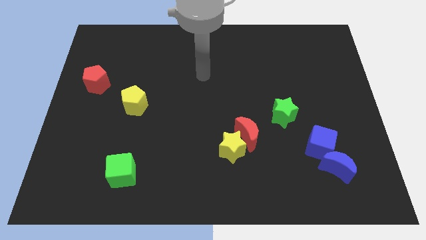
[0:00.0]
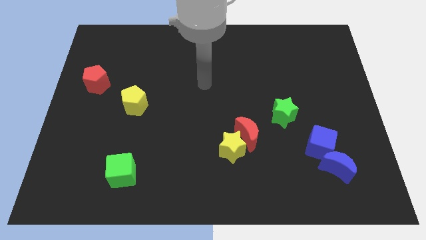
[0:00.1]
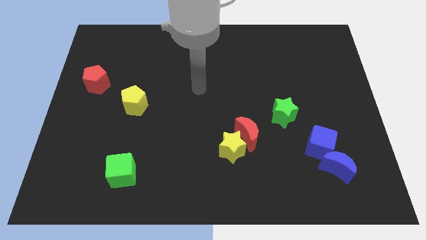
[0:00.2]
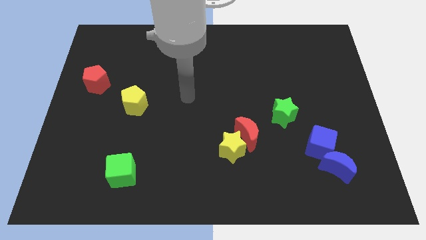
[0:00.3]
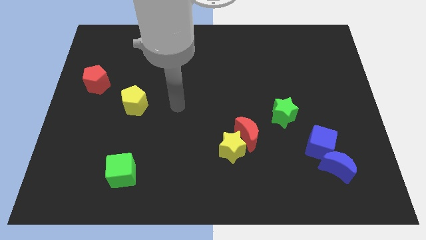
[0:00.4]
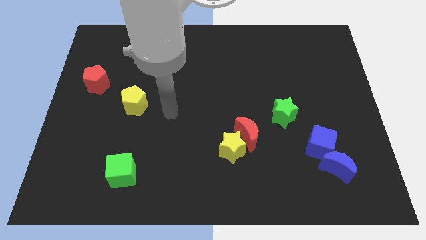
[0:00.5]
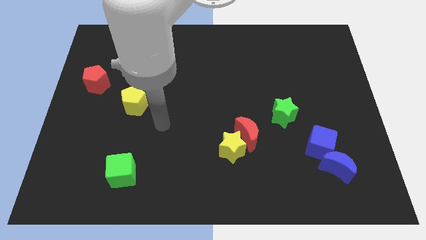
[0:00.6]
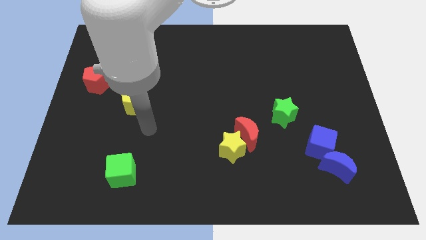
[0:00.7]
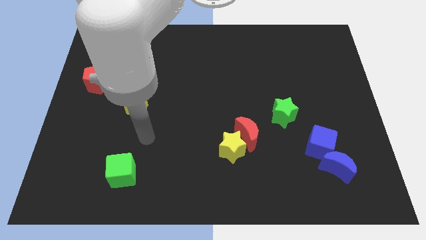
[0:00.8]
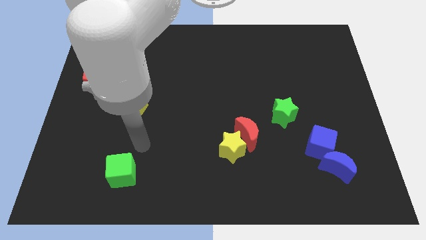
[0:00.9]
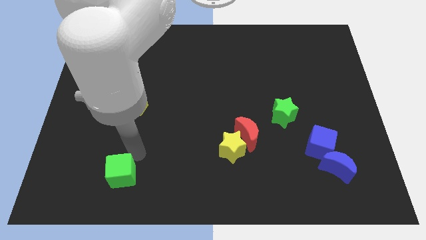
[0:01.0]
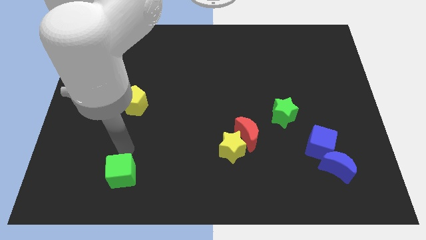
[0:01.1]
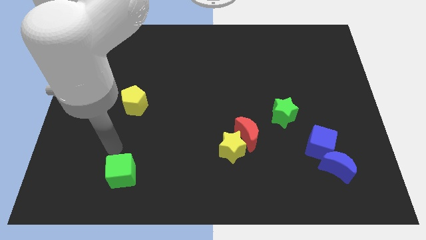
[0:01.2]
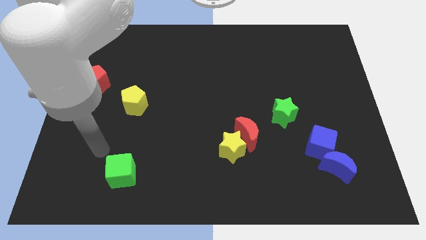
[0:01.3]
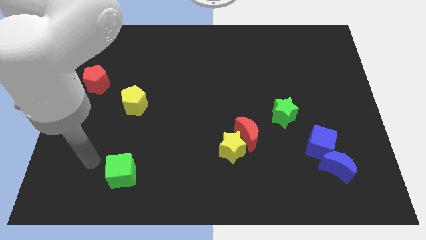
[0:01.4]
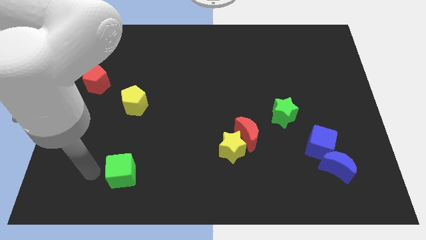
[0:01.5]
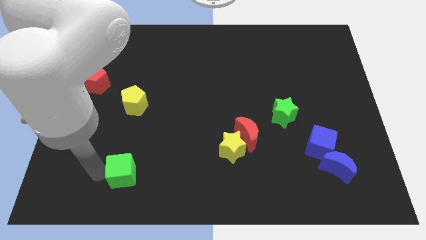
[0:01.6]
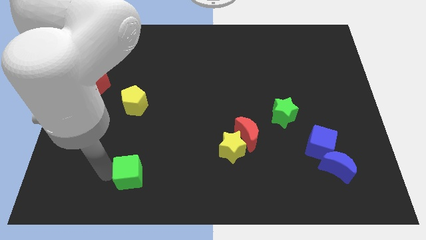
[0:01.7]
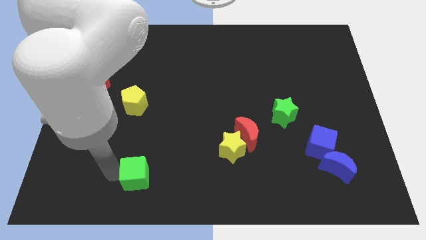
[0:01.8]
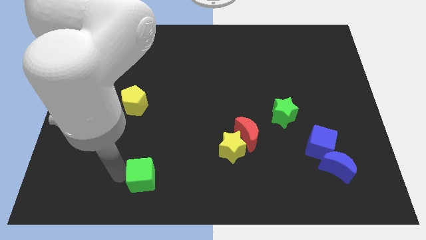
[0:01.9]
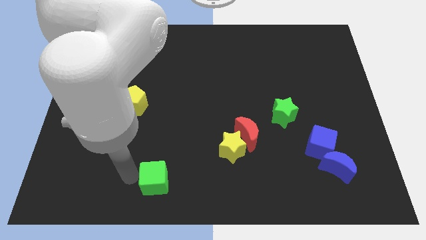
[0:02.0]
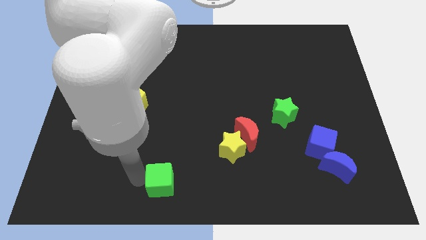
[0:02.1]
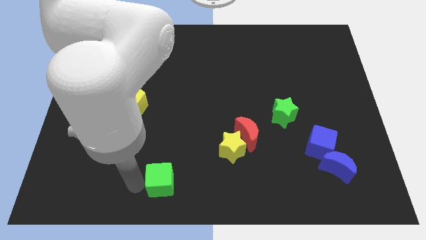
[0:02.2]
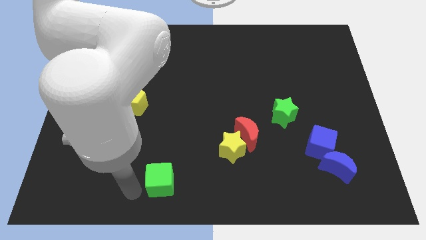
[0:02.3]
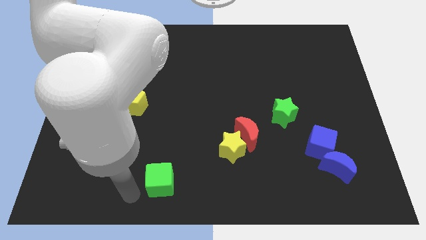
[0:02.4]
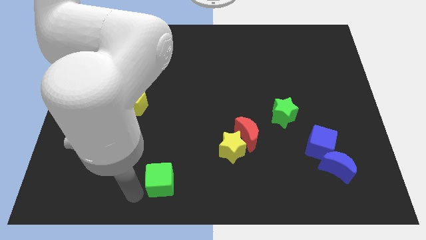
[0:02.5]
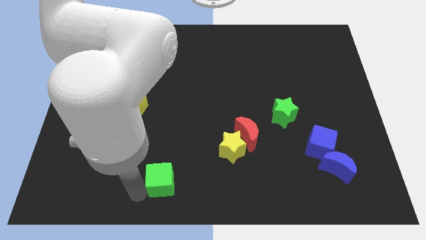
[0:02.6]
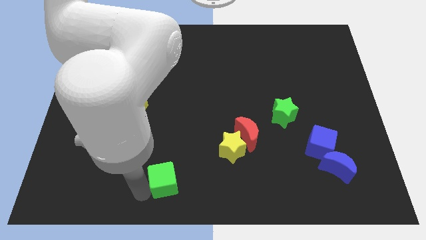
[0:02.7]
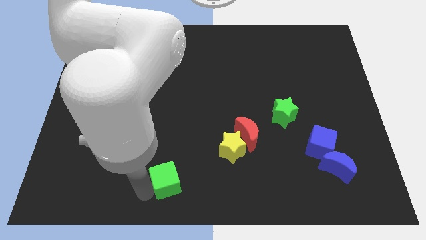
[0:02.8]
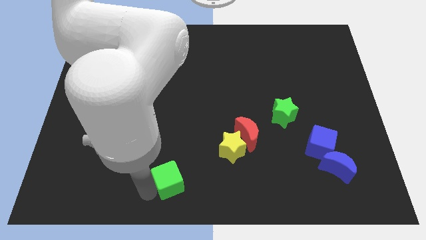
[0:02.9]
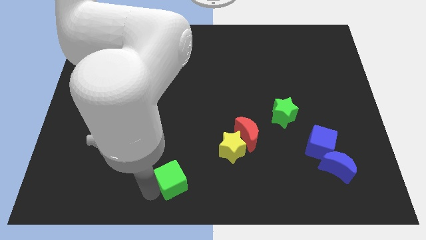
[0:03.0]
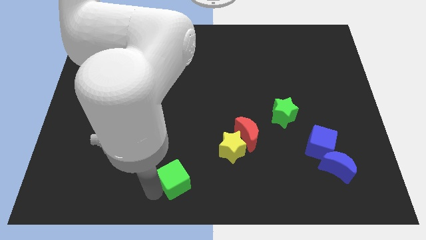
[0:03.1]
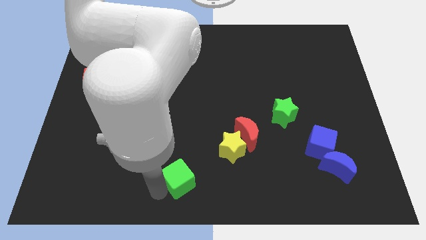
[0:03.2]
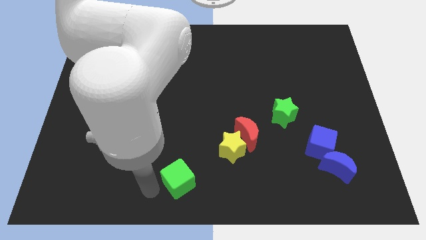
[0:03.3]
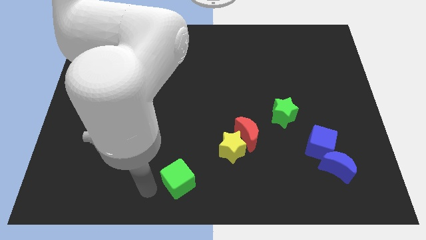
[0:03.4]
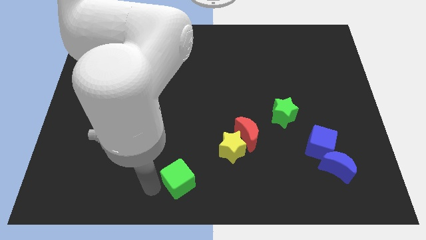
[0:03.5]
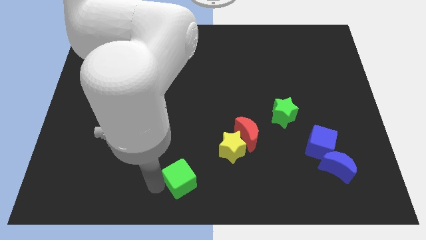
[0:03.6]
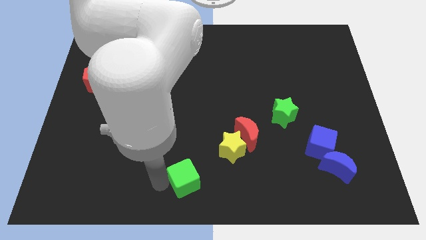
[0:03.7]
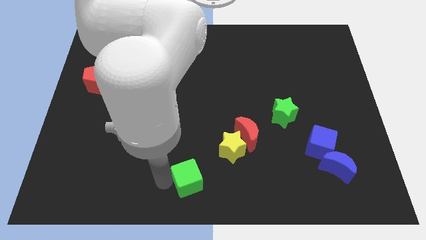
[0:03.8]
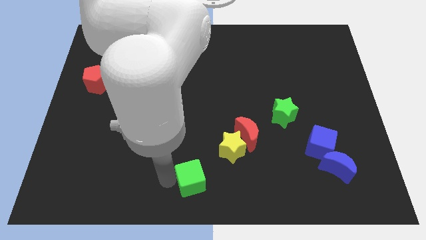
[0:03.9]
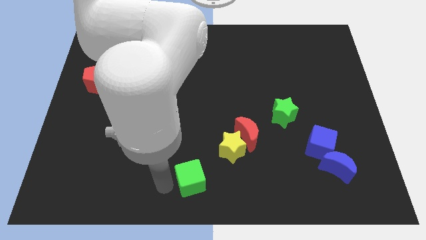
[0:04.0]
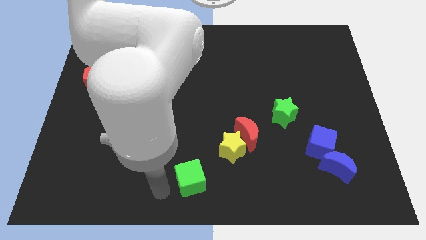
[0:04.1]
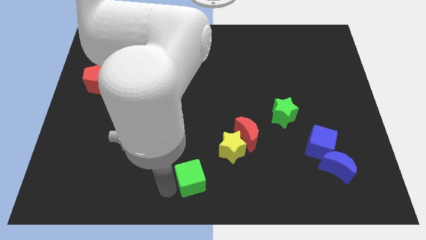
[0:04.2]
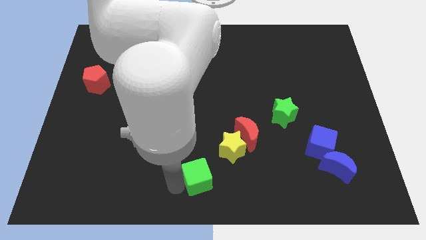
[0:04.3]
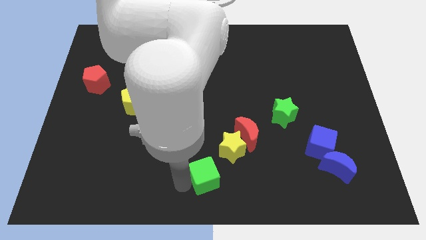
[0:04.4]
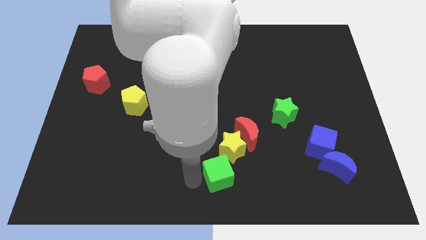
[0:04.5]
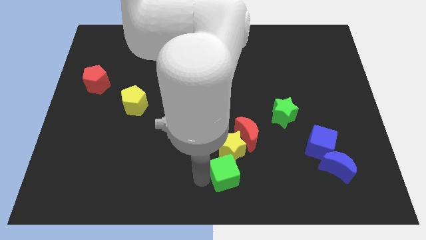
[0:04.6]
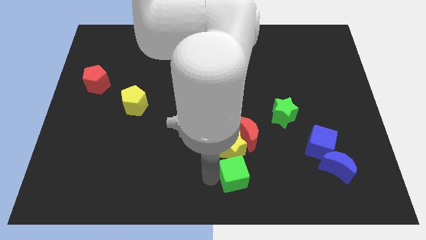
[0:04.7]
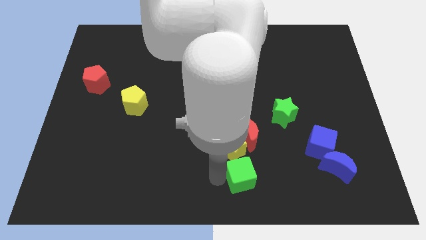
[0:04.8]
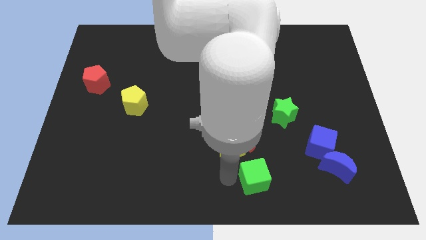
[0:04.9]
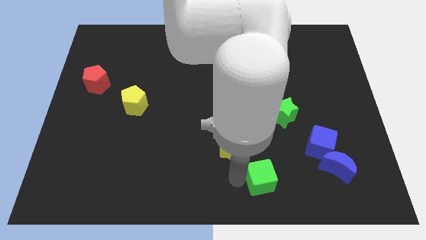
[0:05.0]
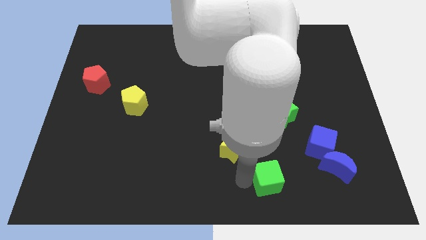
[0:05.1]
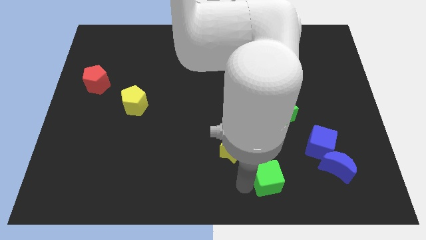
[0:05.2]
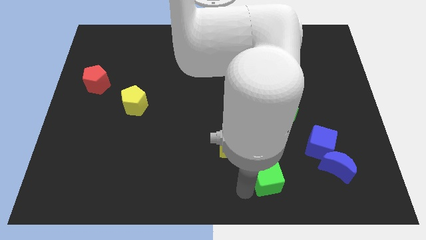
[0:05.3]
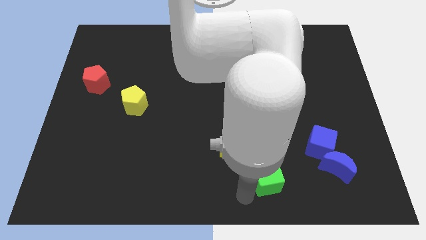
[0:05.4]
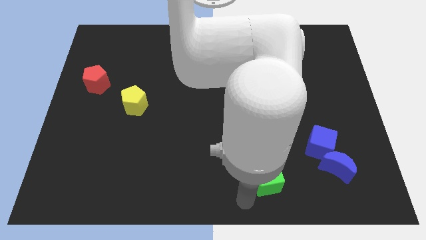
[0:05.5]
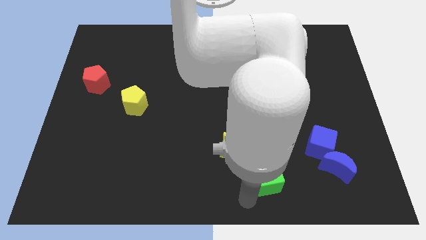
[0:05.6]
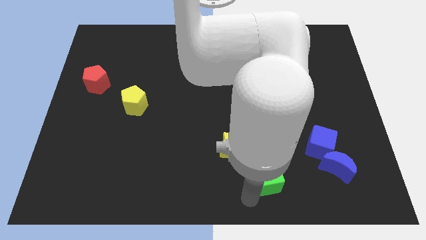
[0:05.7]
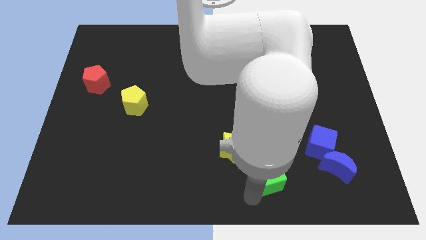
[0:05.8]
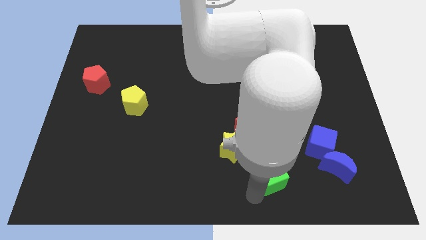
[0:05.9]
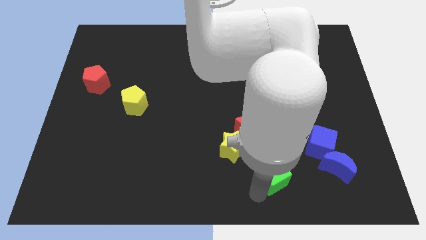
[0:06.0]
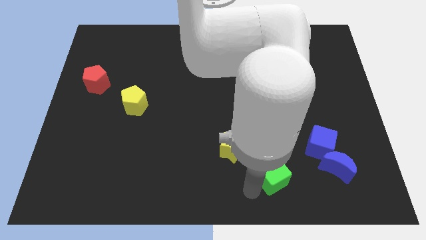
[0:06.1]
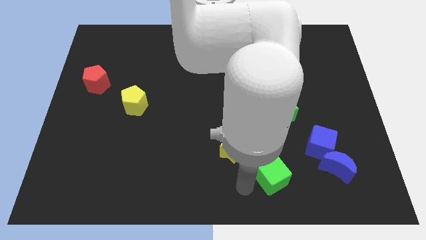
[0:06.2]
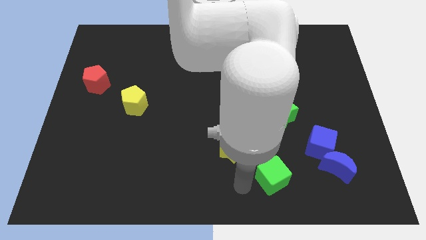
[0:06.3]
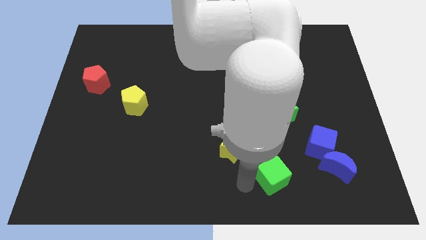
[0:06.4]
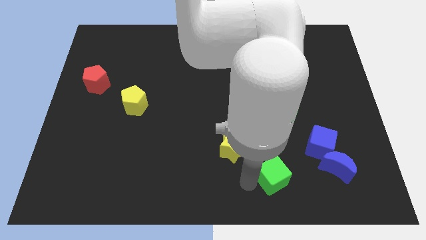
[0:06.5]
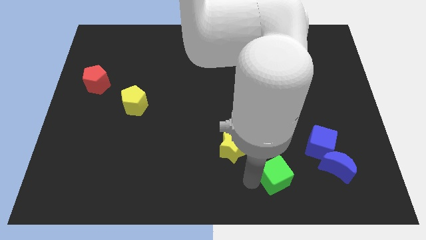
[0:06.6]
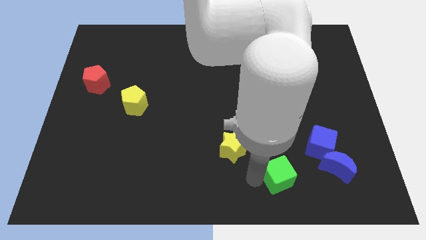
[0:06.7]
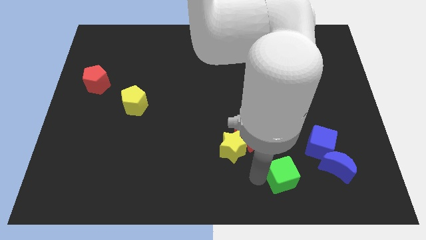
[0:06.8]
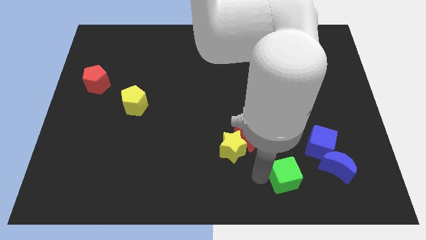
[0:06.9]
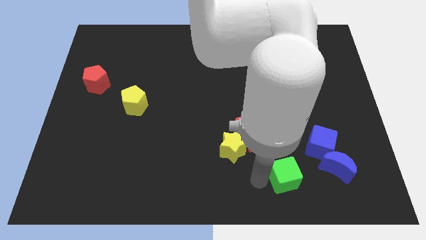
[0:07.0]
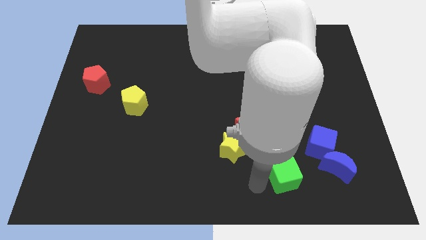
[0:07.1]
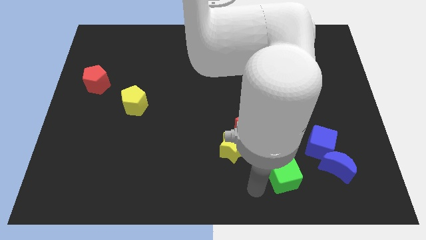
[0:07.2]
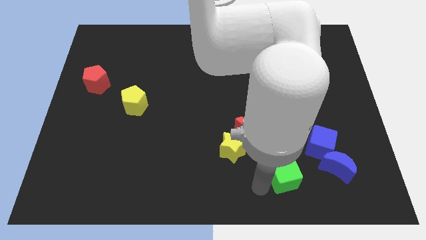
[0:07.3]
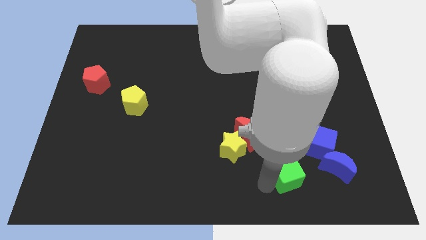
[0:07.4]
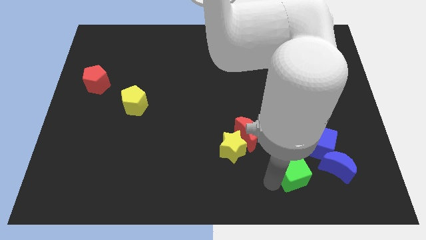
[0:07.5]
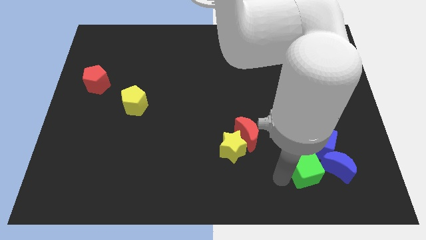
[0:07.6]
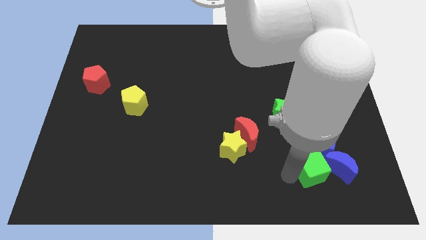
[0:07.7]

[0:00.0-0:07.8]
push the green cube to the blue moon

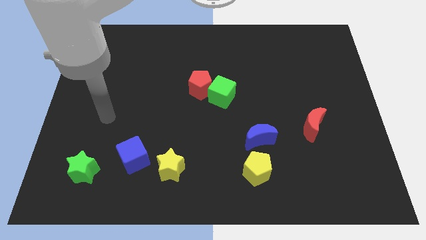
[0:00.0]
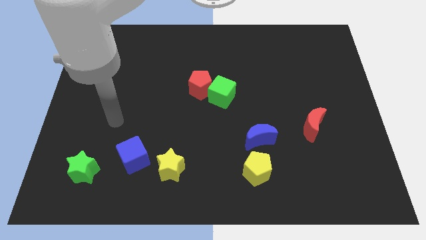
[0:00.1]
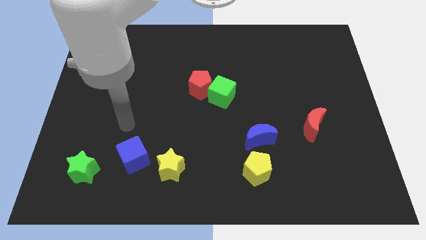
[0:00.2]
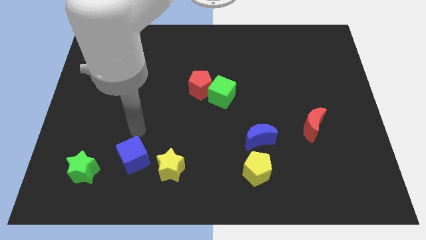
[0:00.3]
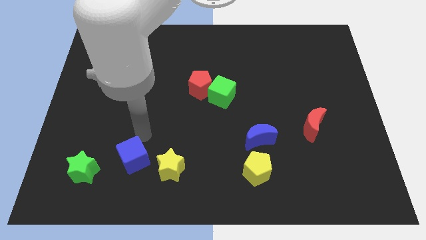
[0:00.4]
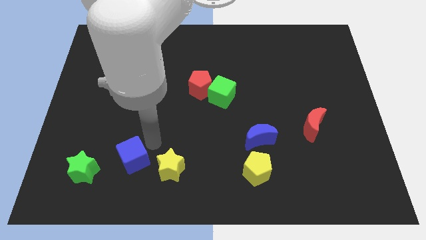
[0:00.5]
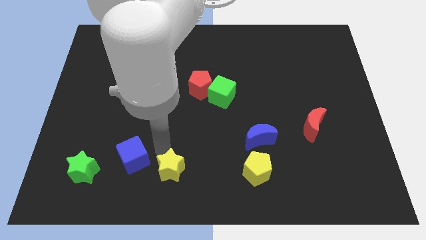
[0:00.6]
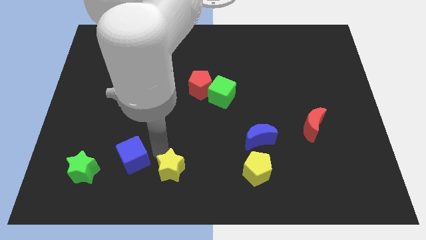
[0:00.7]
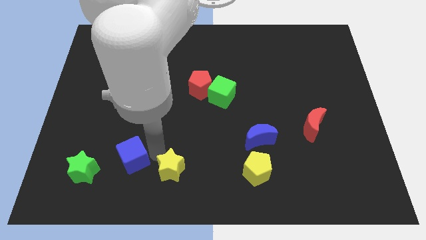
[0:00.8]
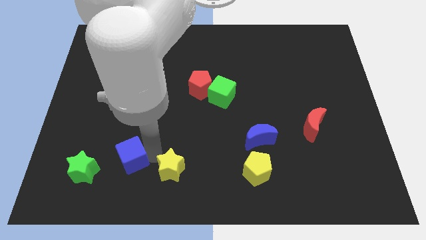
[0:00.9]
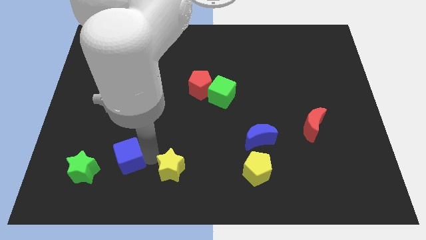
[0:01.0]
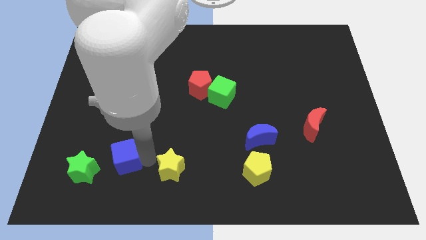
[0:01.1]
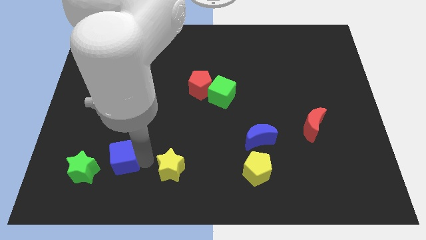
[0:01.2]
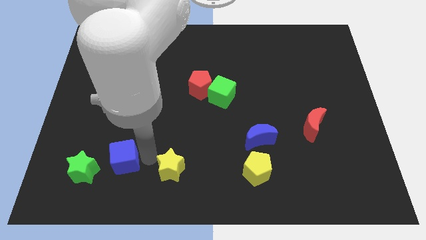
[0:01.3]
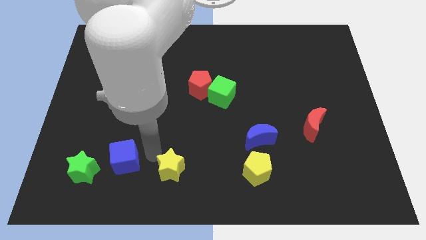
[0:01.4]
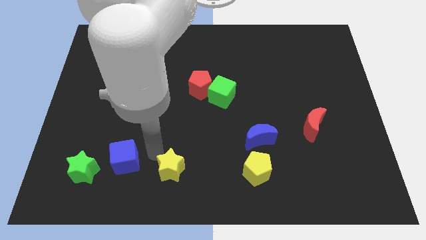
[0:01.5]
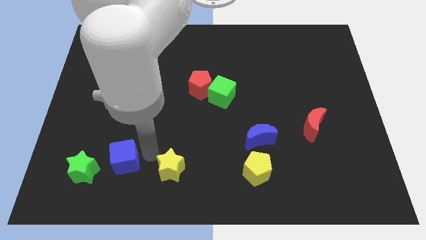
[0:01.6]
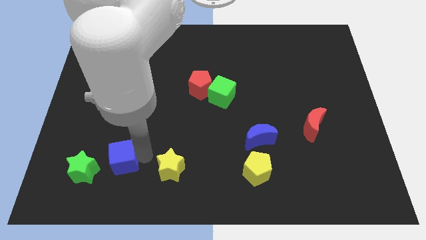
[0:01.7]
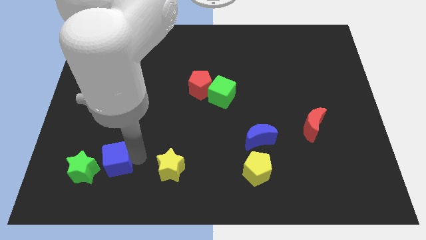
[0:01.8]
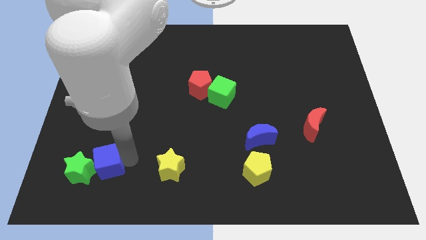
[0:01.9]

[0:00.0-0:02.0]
put the blue cube towards the green star
